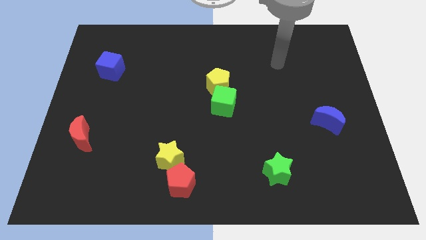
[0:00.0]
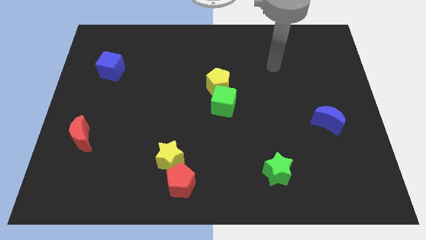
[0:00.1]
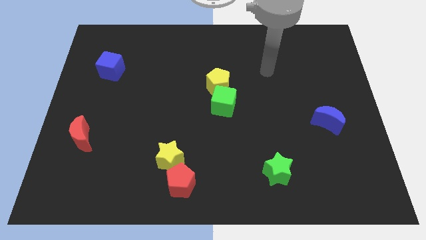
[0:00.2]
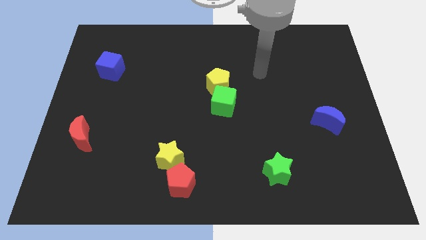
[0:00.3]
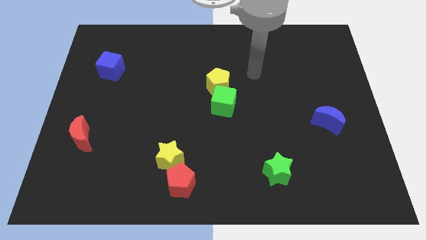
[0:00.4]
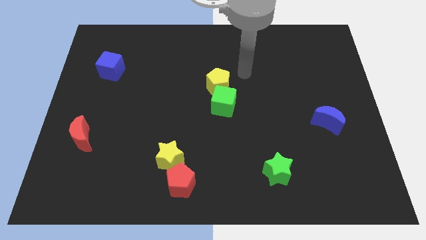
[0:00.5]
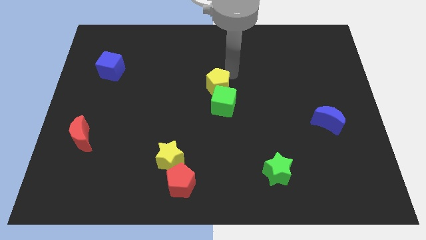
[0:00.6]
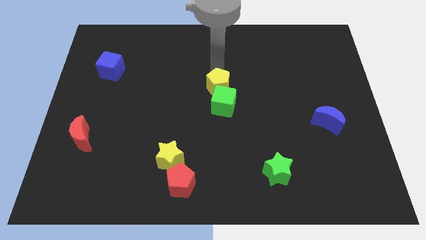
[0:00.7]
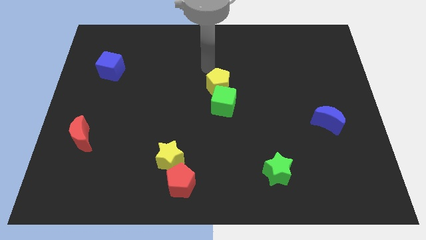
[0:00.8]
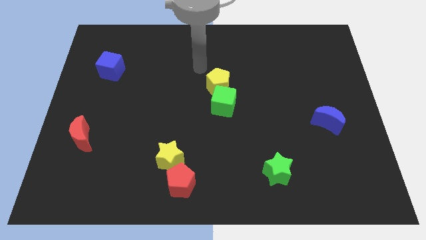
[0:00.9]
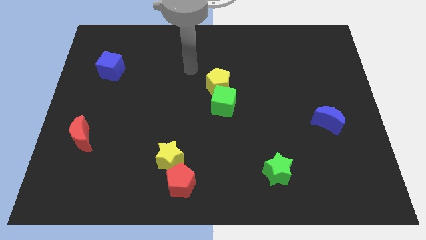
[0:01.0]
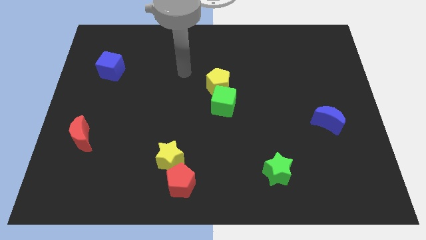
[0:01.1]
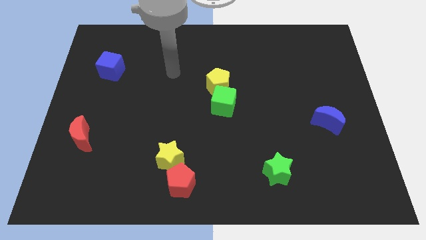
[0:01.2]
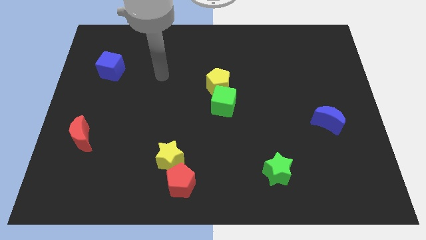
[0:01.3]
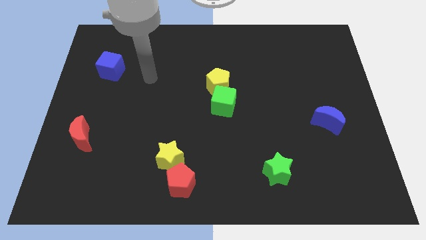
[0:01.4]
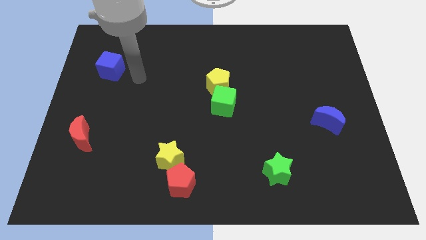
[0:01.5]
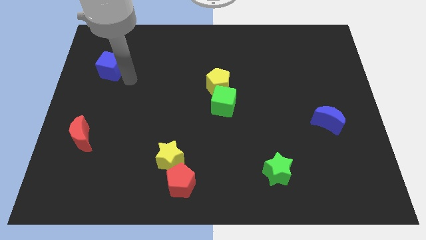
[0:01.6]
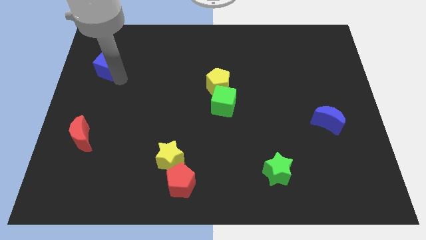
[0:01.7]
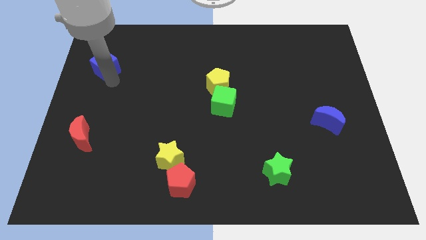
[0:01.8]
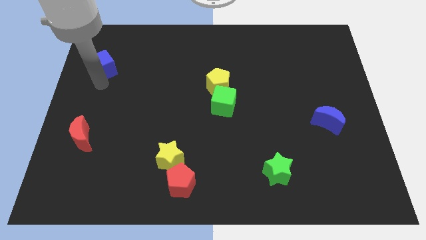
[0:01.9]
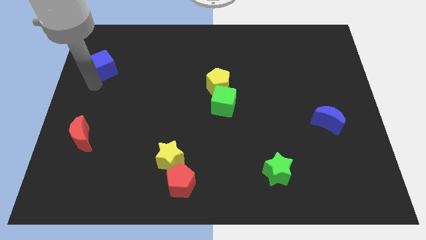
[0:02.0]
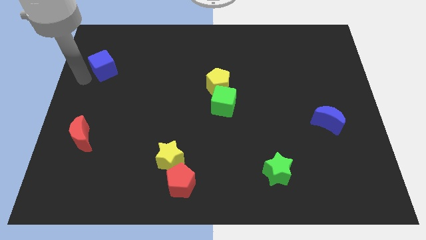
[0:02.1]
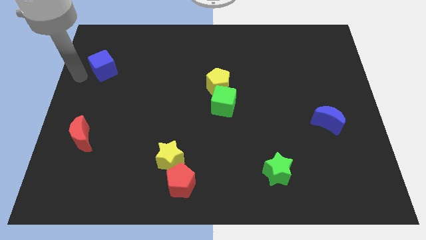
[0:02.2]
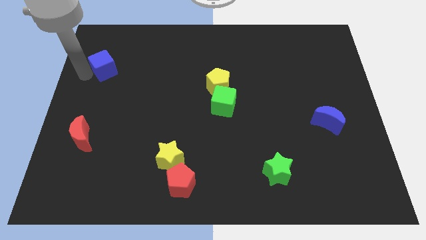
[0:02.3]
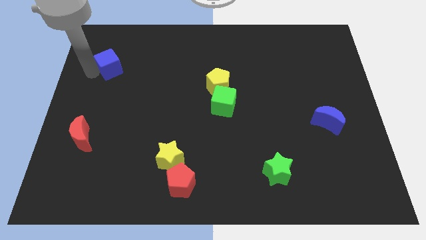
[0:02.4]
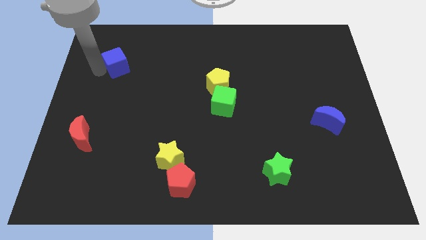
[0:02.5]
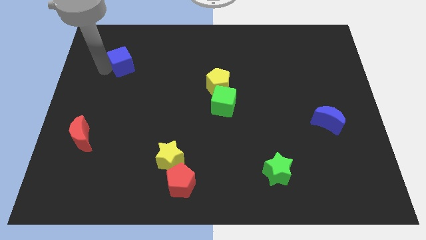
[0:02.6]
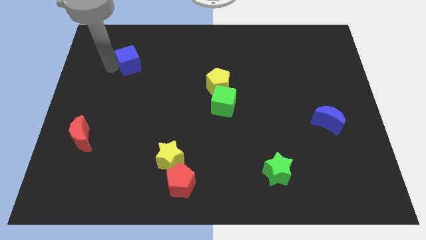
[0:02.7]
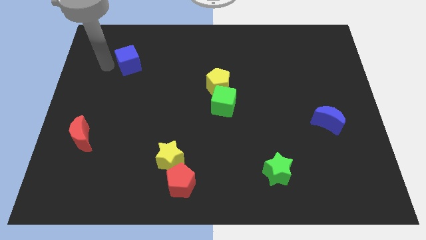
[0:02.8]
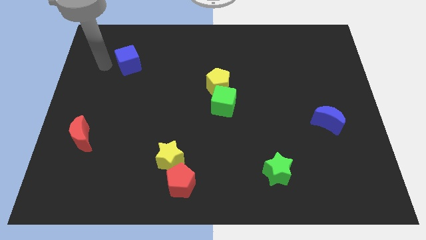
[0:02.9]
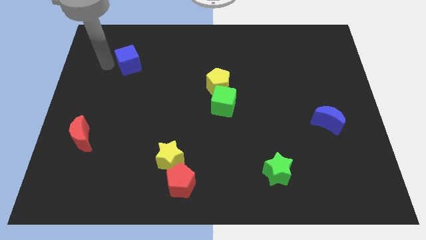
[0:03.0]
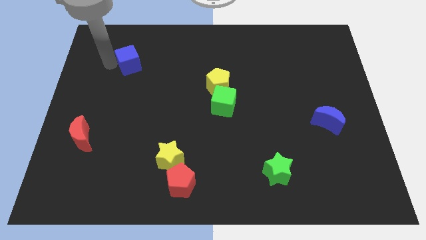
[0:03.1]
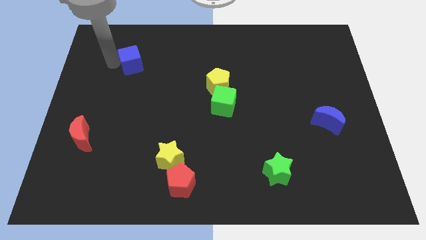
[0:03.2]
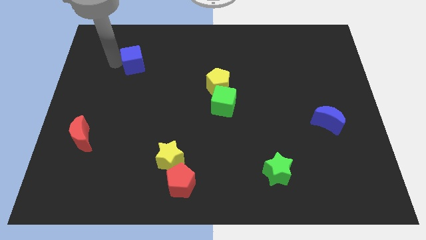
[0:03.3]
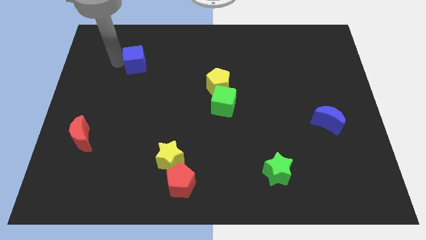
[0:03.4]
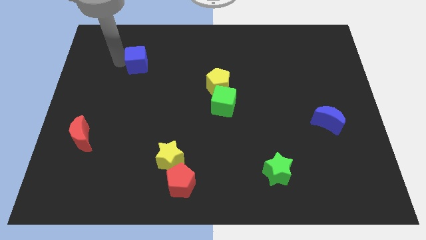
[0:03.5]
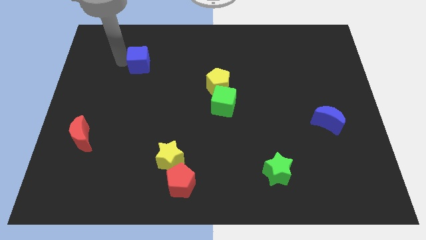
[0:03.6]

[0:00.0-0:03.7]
slightly slide the blue cube to the right

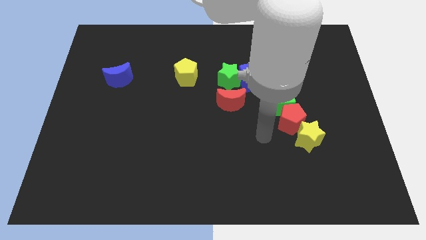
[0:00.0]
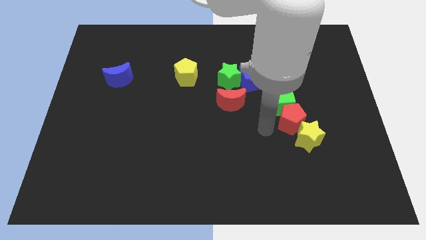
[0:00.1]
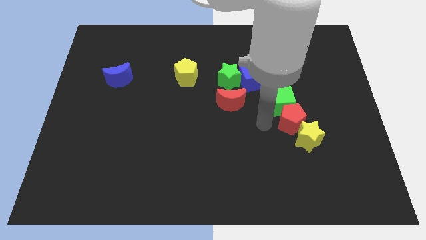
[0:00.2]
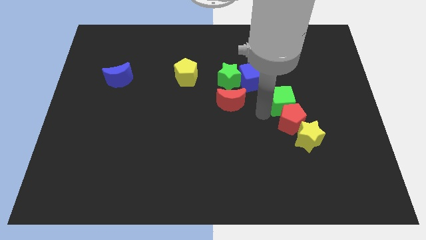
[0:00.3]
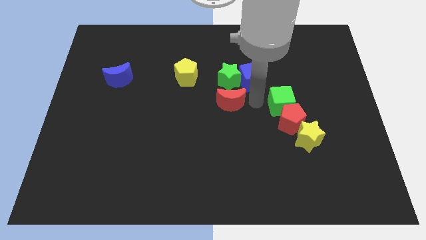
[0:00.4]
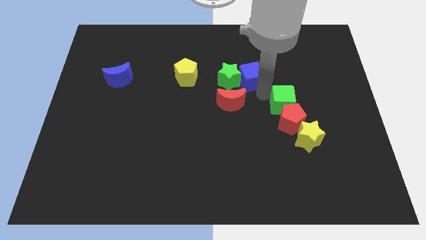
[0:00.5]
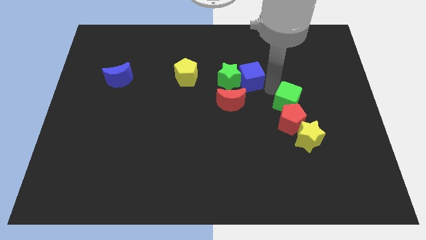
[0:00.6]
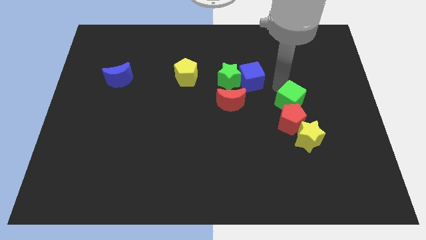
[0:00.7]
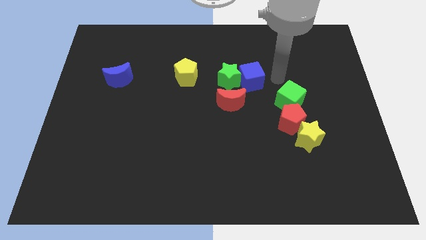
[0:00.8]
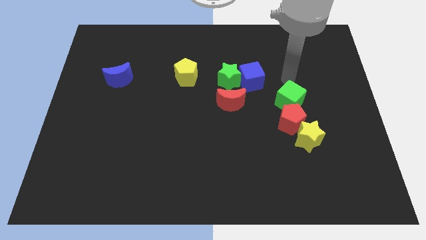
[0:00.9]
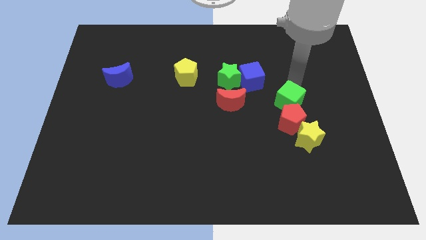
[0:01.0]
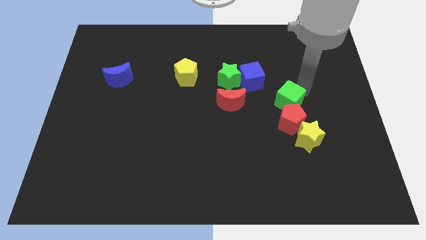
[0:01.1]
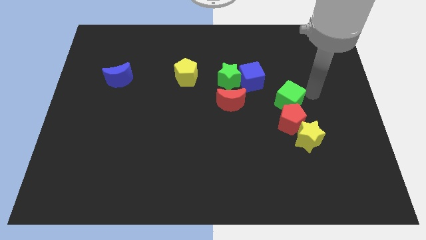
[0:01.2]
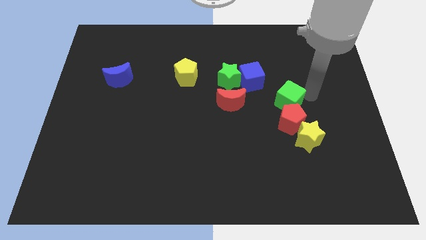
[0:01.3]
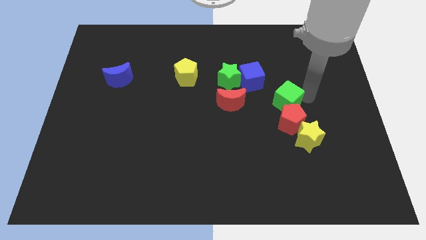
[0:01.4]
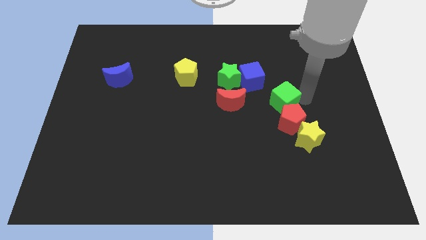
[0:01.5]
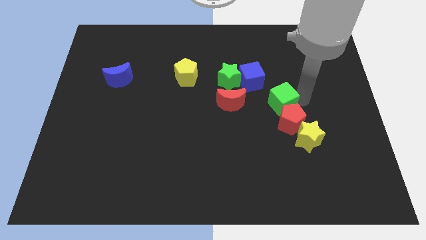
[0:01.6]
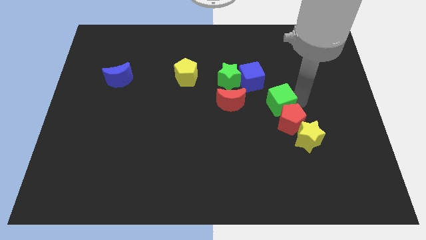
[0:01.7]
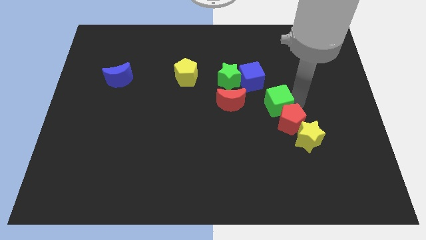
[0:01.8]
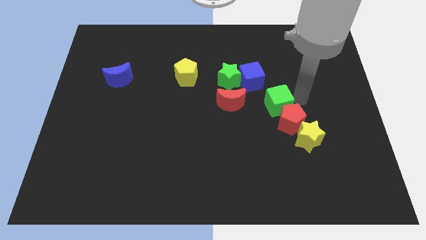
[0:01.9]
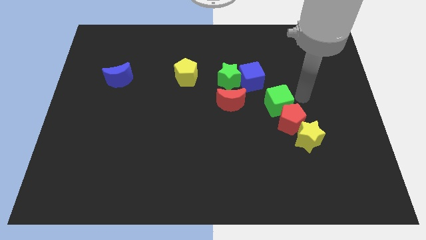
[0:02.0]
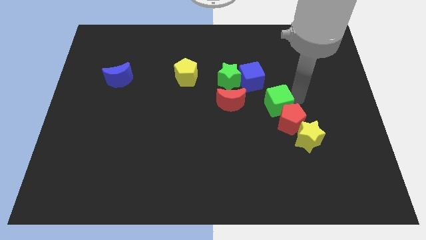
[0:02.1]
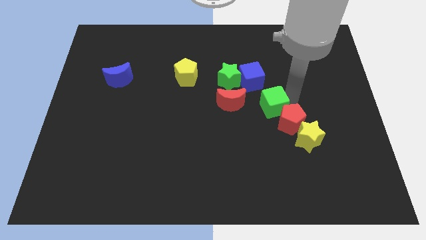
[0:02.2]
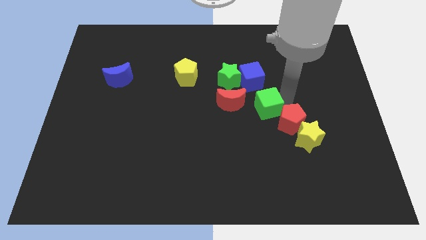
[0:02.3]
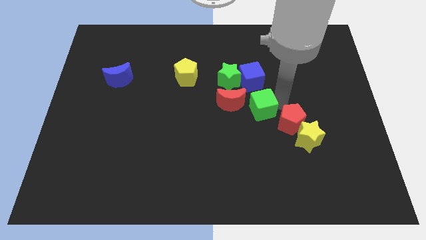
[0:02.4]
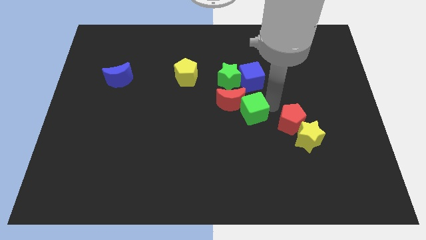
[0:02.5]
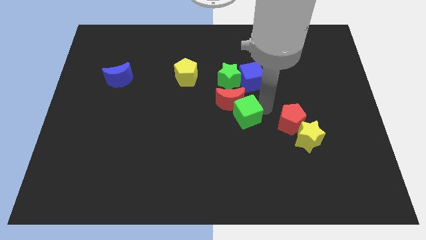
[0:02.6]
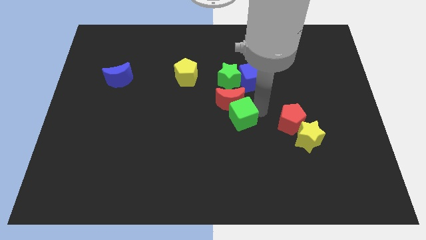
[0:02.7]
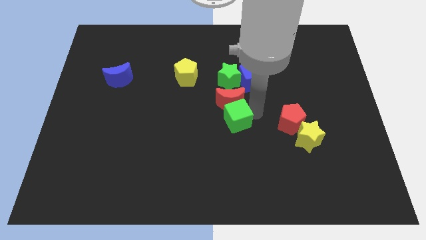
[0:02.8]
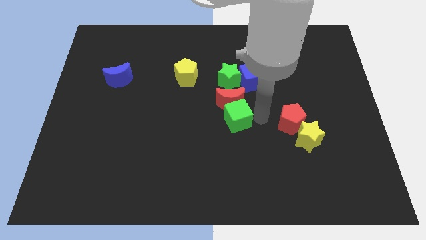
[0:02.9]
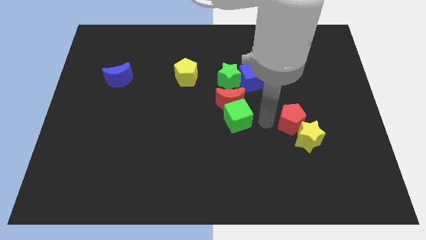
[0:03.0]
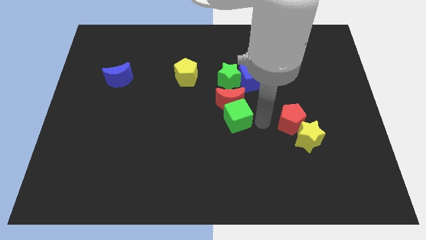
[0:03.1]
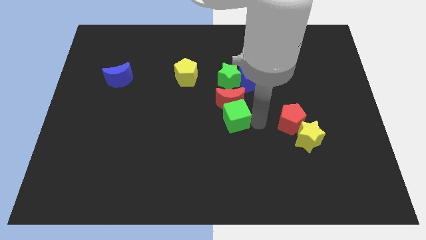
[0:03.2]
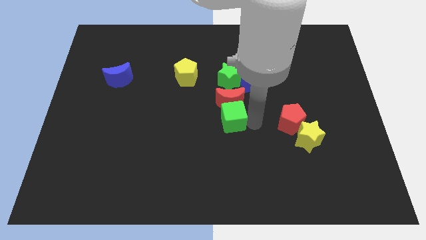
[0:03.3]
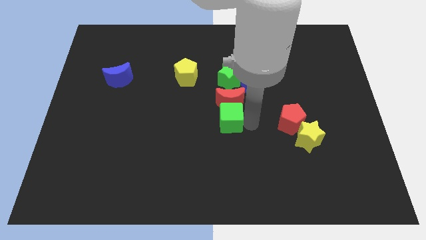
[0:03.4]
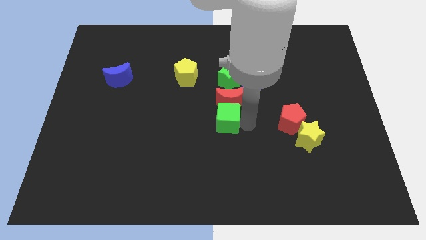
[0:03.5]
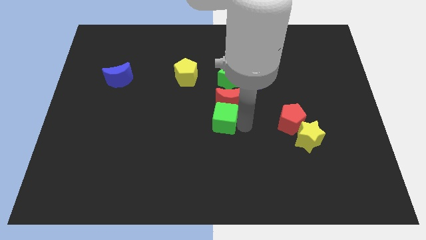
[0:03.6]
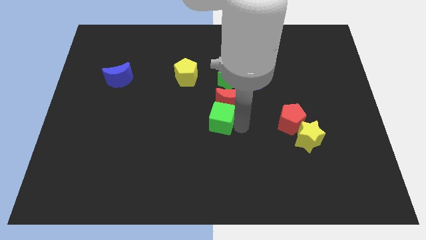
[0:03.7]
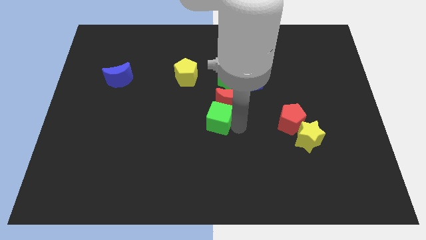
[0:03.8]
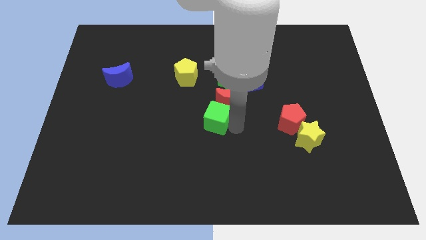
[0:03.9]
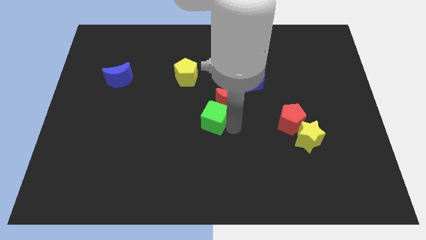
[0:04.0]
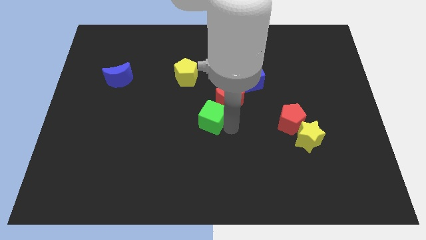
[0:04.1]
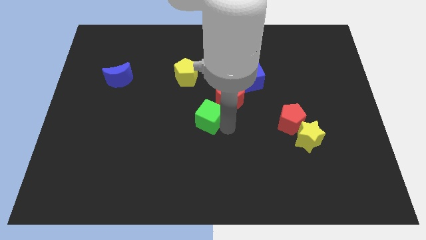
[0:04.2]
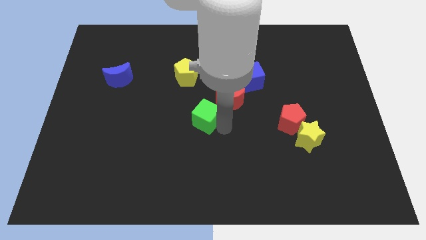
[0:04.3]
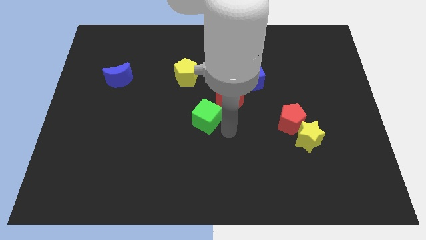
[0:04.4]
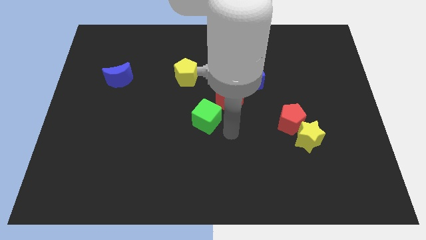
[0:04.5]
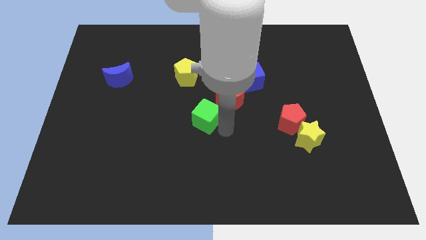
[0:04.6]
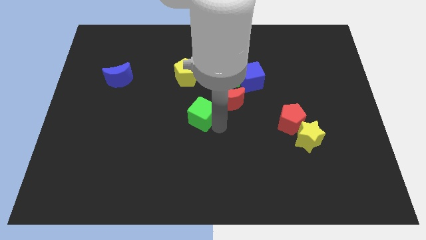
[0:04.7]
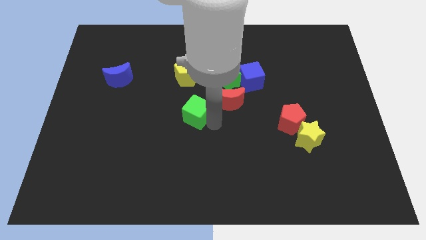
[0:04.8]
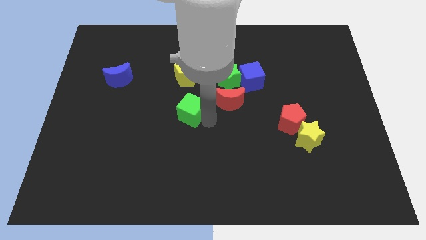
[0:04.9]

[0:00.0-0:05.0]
move the green cube left
